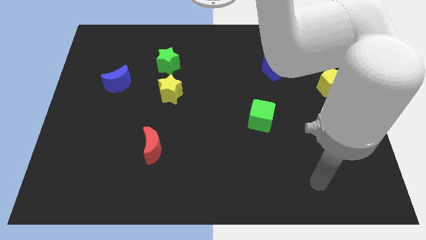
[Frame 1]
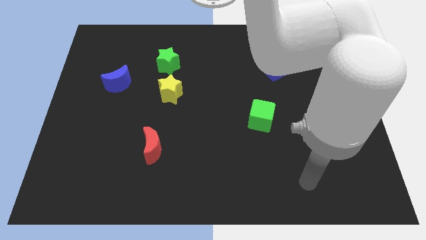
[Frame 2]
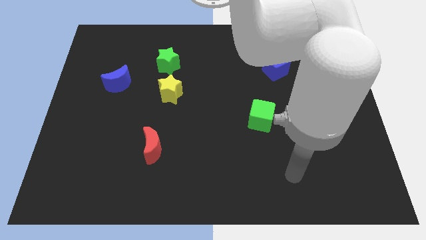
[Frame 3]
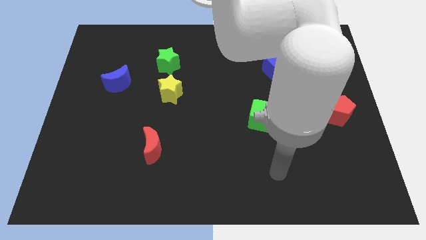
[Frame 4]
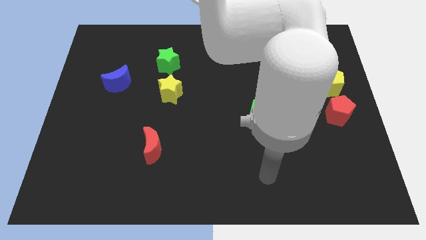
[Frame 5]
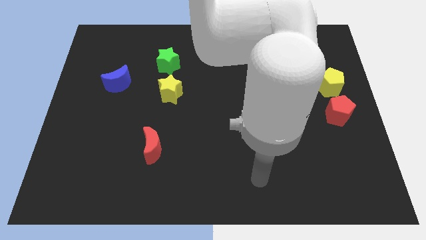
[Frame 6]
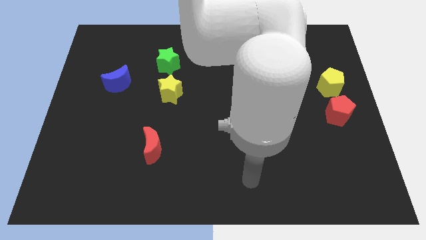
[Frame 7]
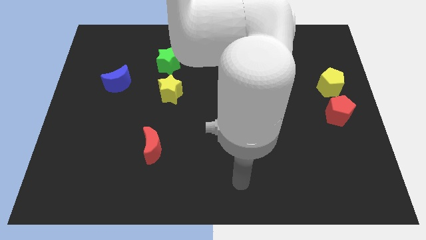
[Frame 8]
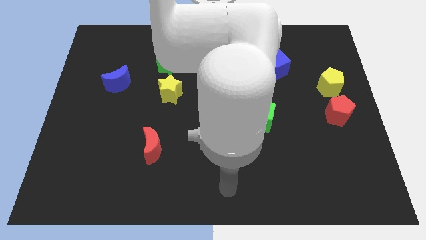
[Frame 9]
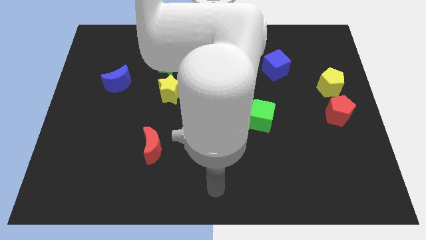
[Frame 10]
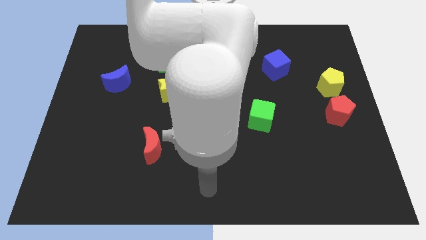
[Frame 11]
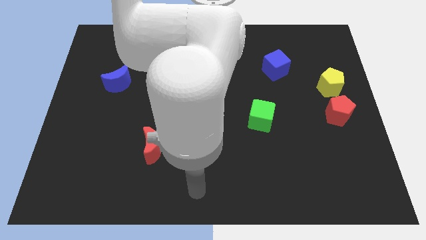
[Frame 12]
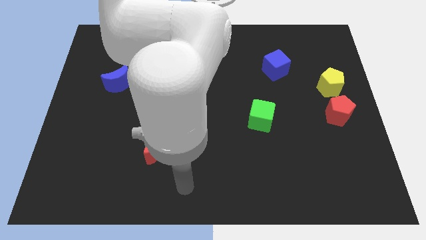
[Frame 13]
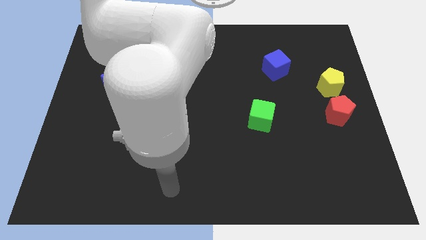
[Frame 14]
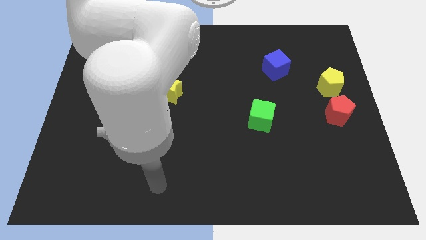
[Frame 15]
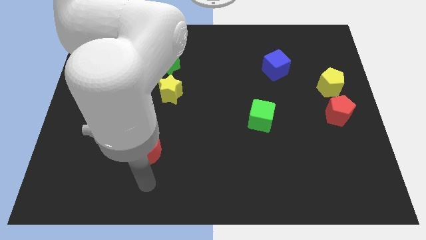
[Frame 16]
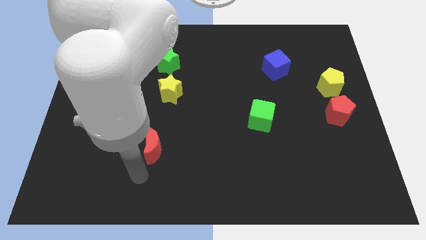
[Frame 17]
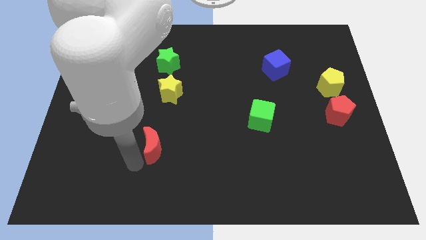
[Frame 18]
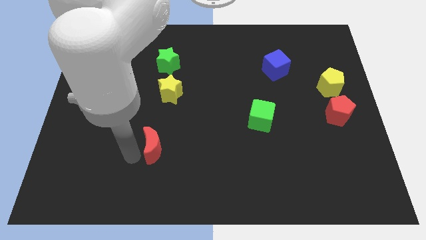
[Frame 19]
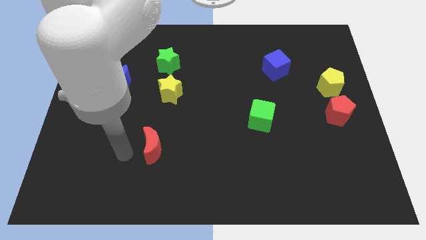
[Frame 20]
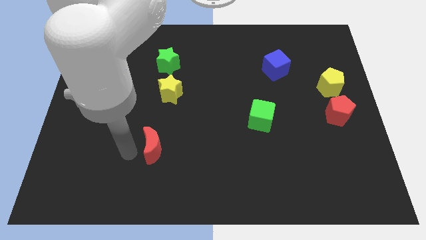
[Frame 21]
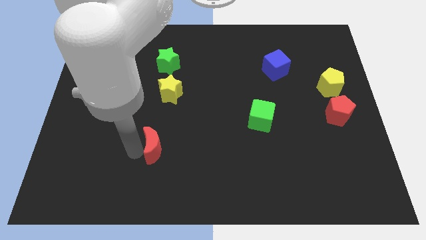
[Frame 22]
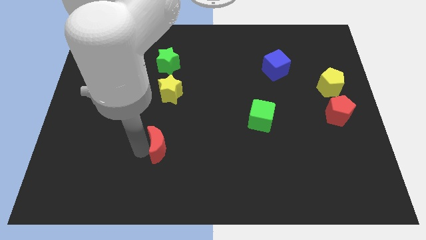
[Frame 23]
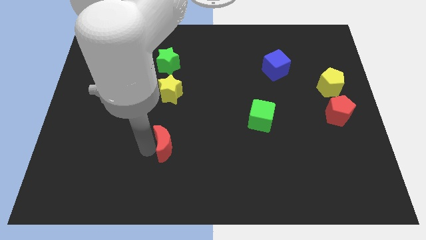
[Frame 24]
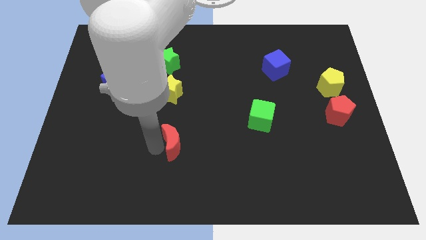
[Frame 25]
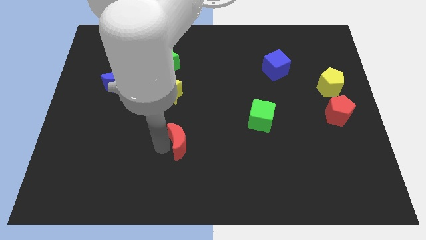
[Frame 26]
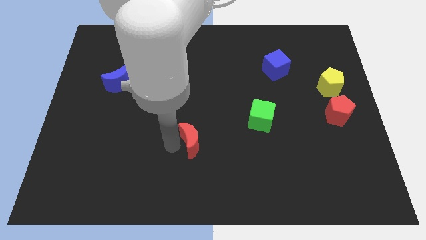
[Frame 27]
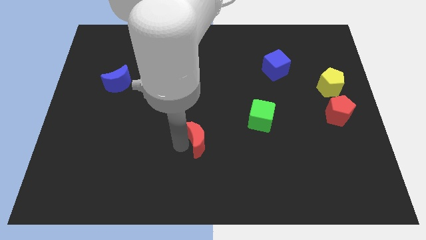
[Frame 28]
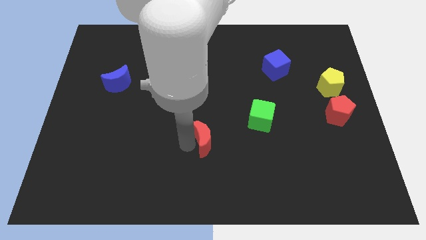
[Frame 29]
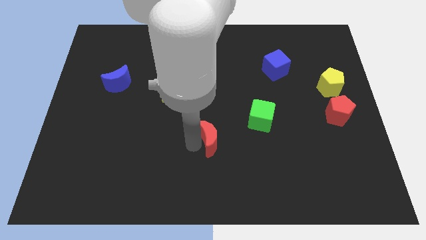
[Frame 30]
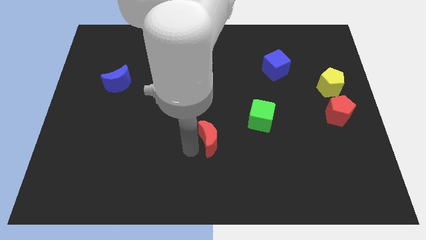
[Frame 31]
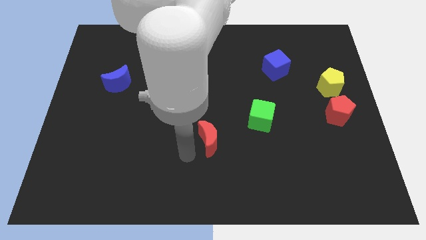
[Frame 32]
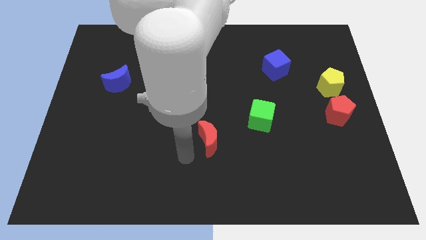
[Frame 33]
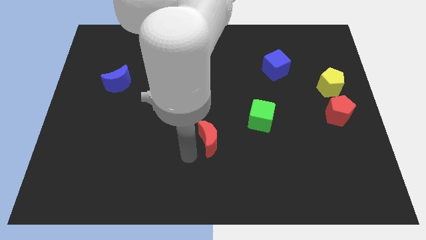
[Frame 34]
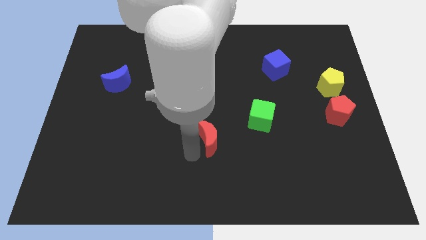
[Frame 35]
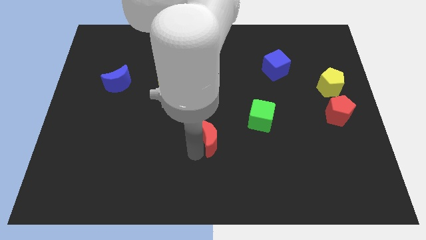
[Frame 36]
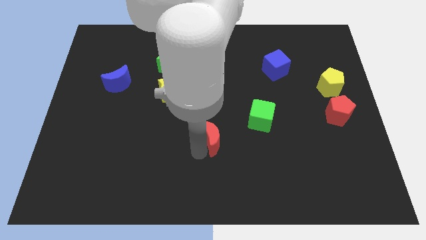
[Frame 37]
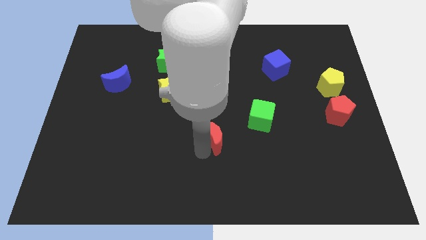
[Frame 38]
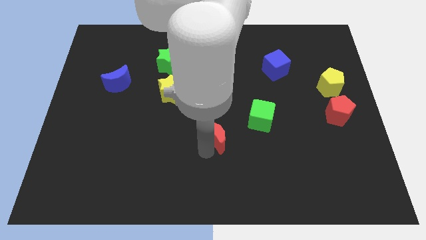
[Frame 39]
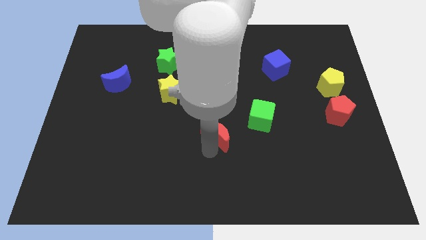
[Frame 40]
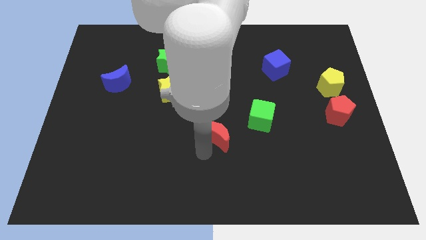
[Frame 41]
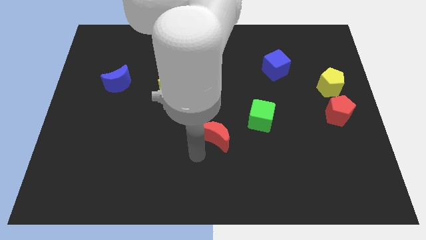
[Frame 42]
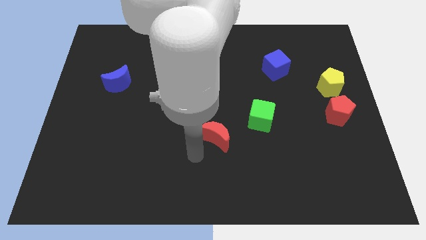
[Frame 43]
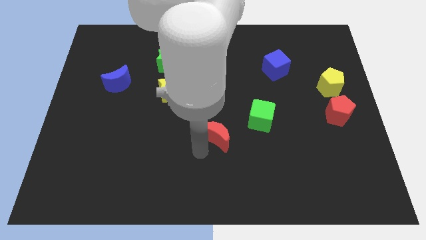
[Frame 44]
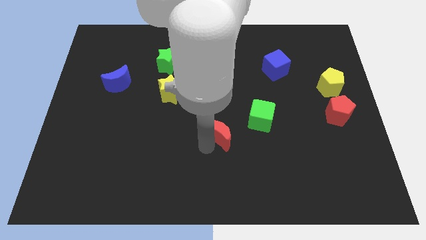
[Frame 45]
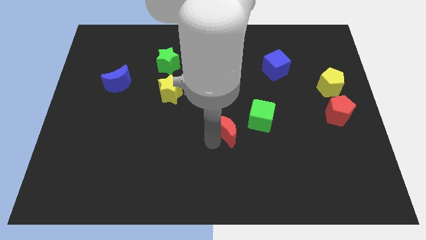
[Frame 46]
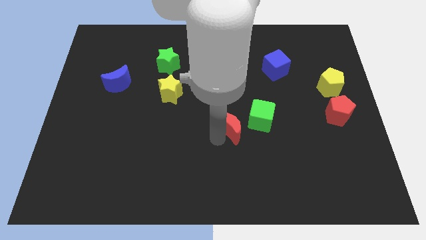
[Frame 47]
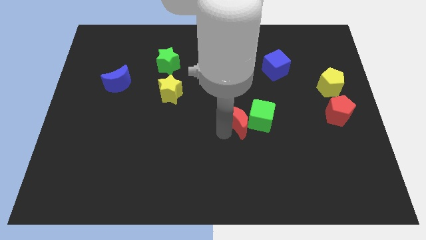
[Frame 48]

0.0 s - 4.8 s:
push the red moon to the green cube

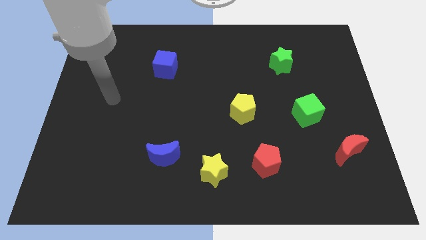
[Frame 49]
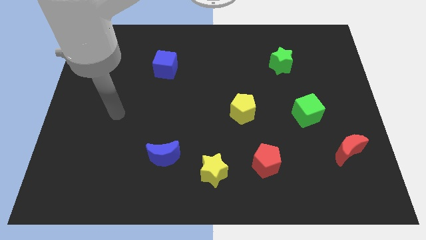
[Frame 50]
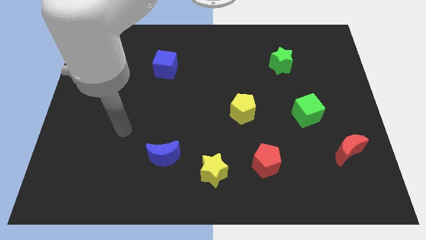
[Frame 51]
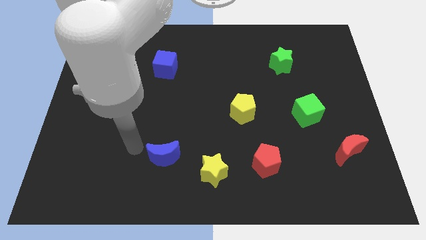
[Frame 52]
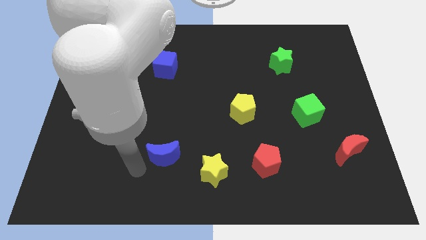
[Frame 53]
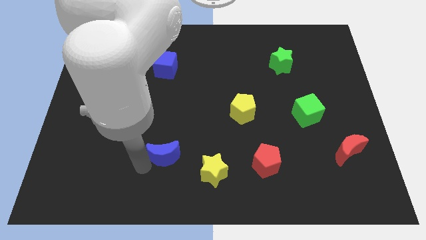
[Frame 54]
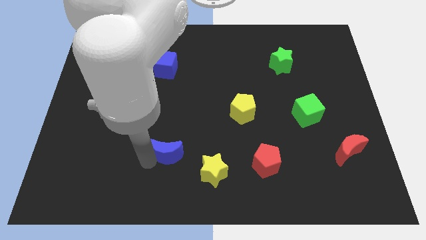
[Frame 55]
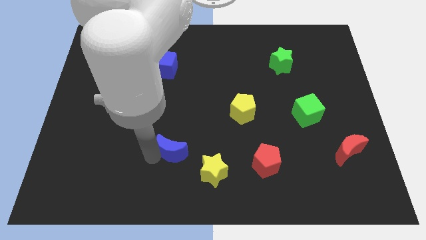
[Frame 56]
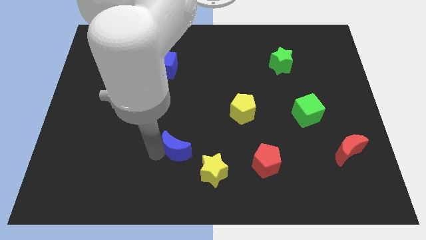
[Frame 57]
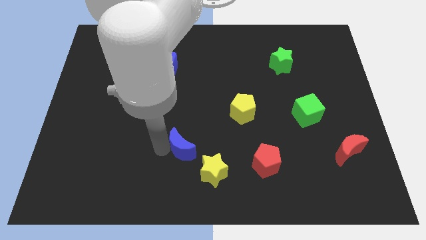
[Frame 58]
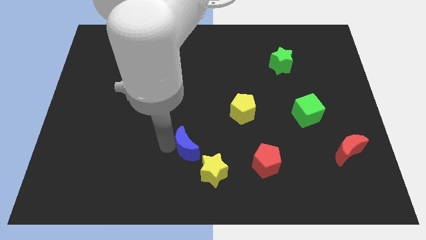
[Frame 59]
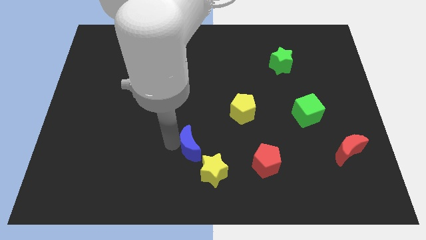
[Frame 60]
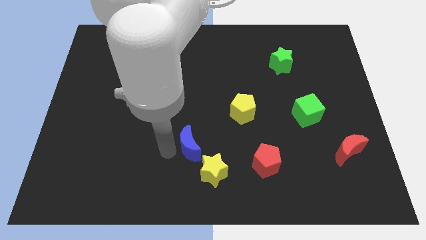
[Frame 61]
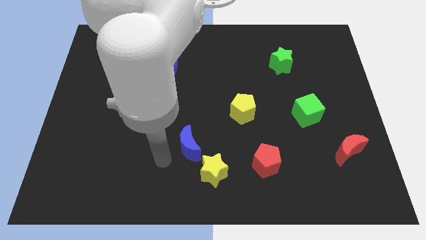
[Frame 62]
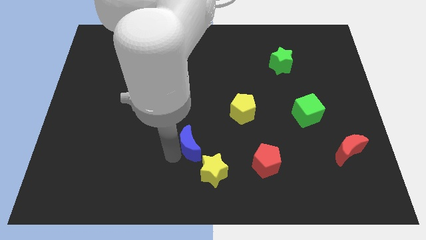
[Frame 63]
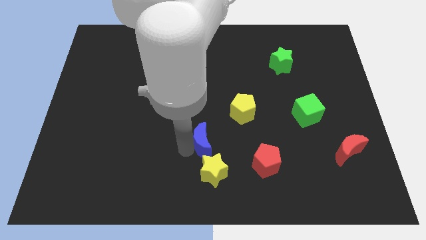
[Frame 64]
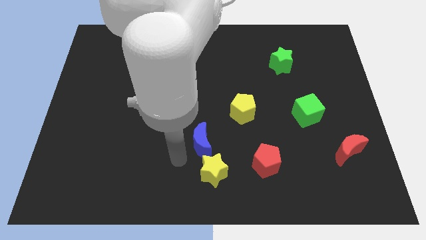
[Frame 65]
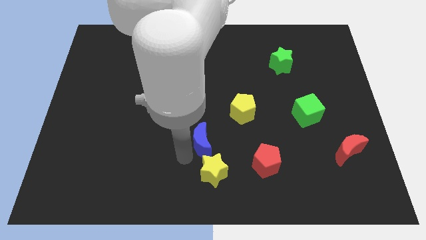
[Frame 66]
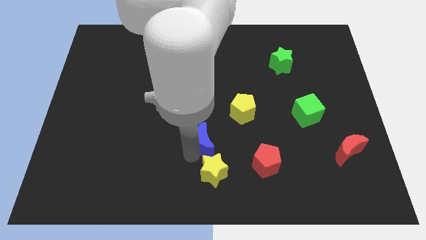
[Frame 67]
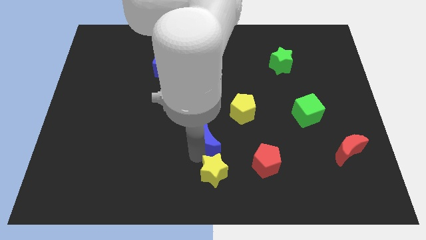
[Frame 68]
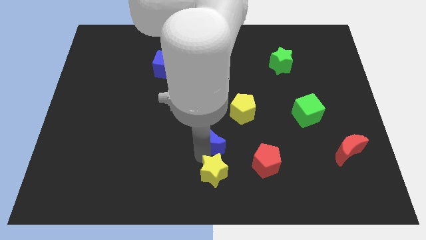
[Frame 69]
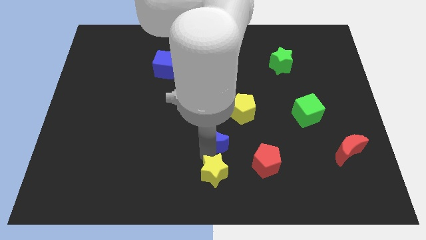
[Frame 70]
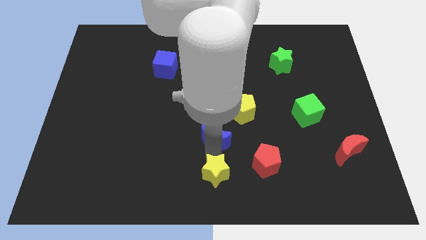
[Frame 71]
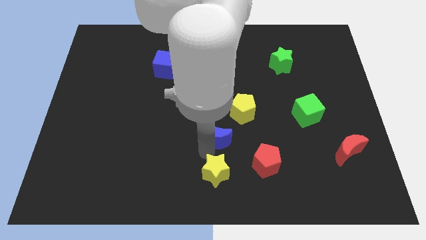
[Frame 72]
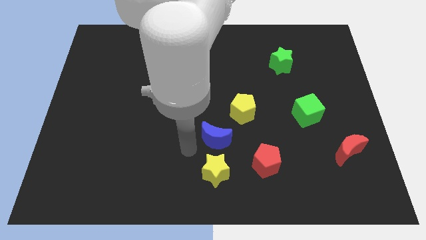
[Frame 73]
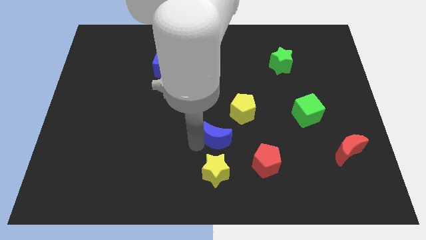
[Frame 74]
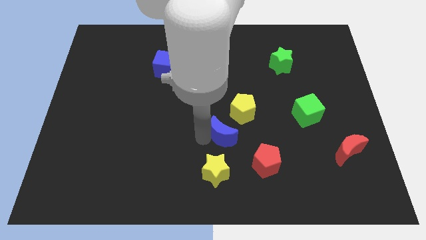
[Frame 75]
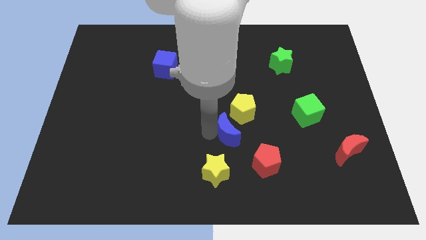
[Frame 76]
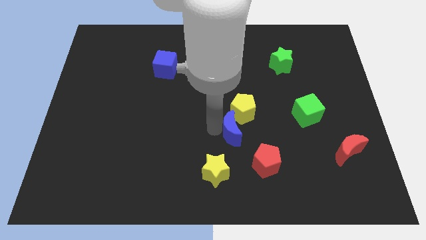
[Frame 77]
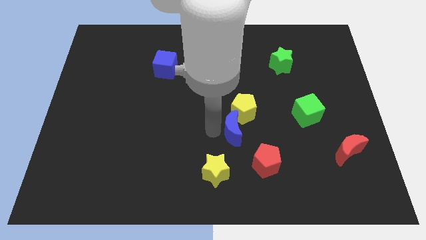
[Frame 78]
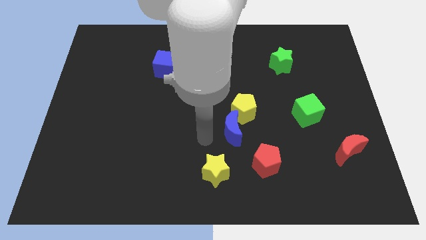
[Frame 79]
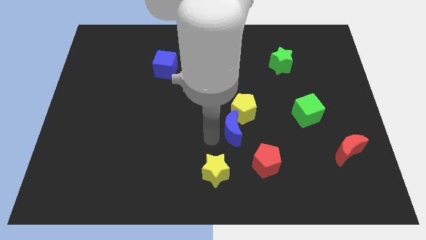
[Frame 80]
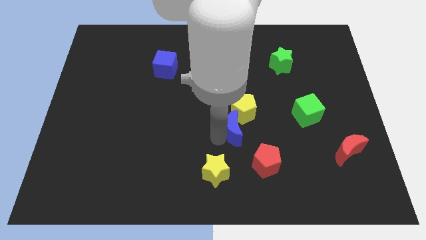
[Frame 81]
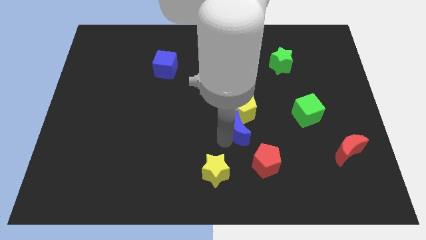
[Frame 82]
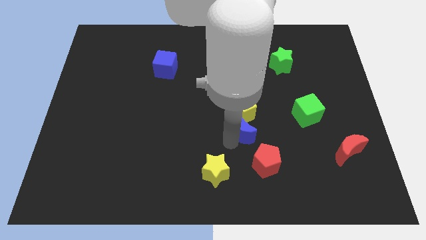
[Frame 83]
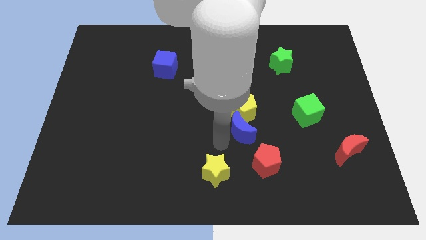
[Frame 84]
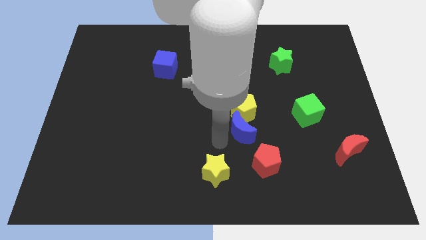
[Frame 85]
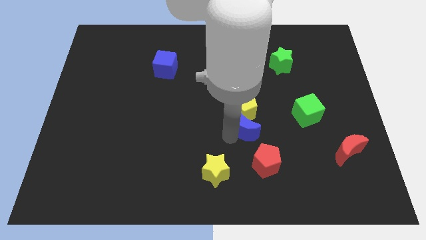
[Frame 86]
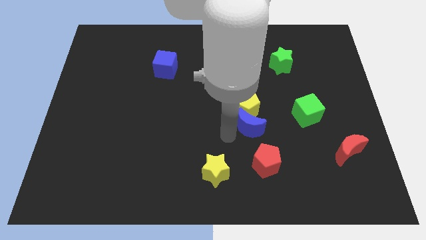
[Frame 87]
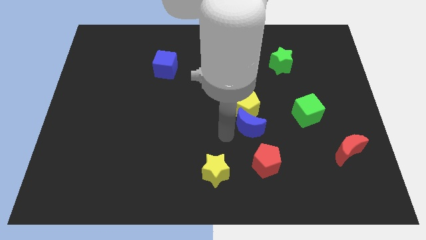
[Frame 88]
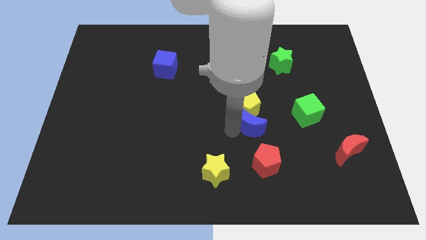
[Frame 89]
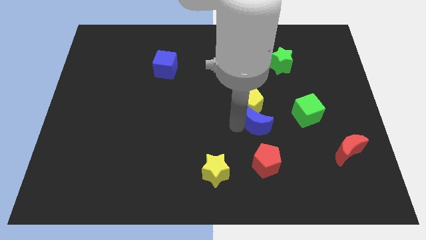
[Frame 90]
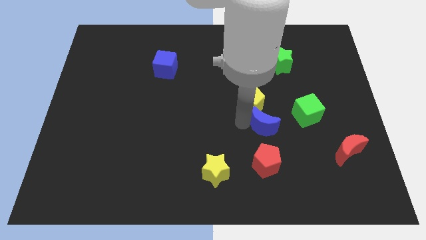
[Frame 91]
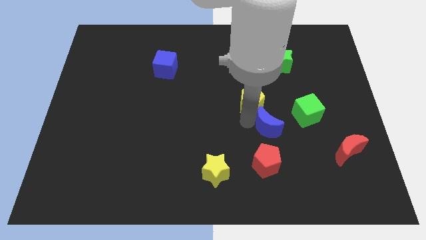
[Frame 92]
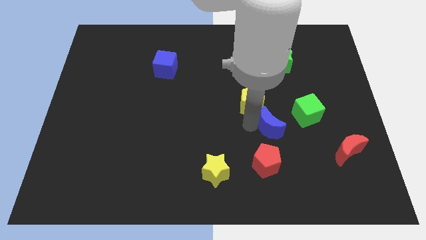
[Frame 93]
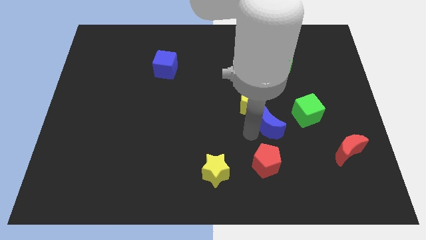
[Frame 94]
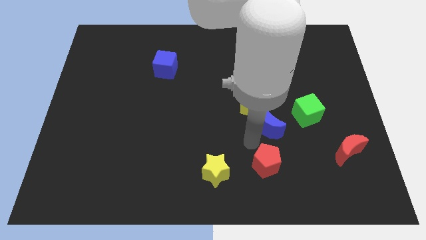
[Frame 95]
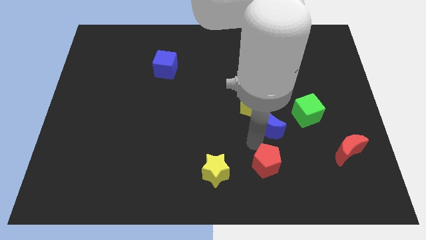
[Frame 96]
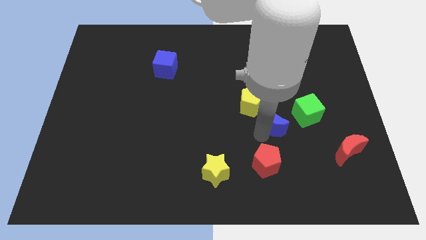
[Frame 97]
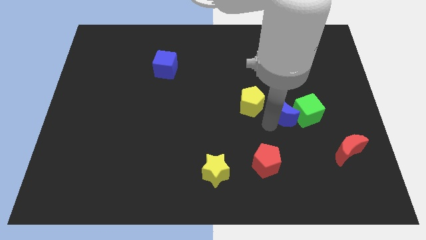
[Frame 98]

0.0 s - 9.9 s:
slide the blue moon next to the green cube
